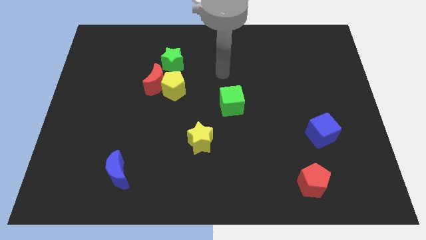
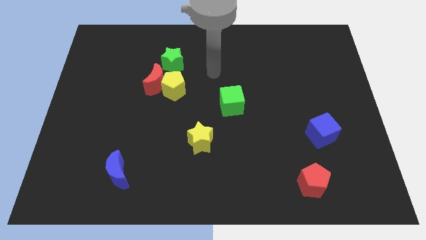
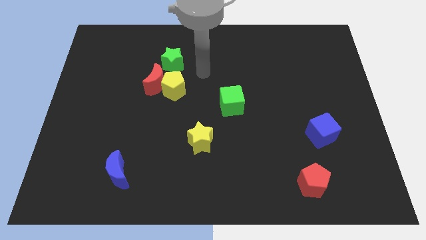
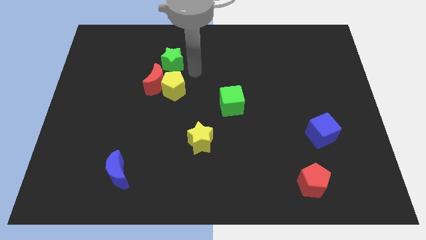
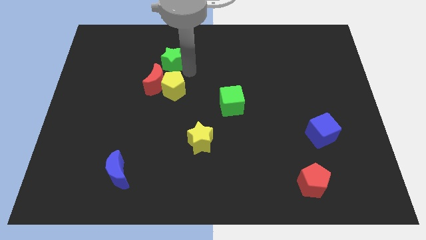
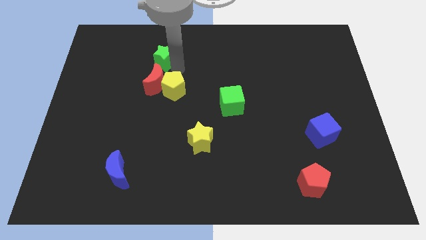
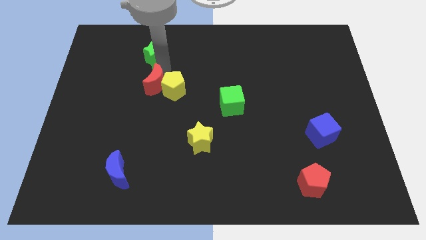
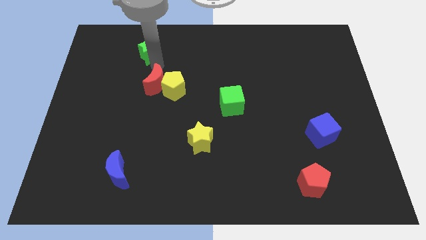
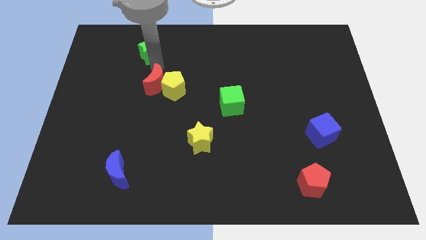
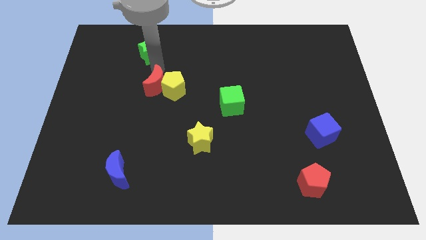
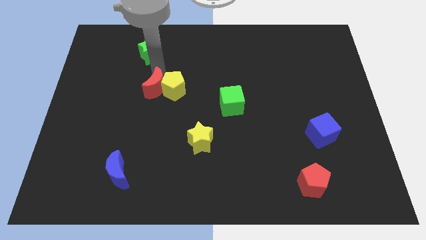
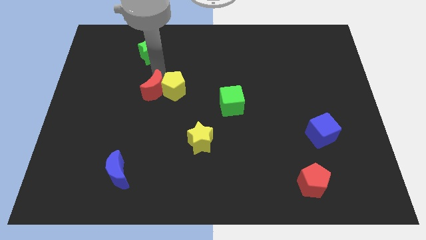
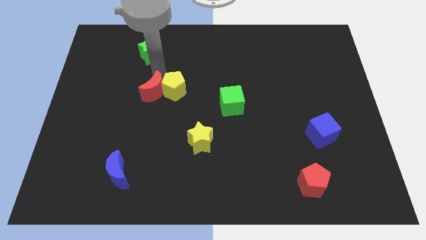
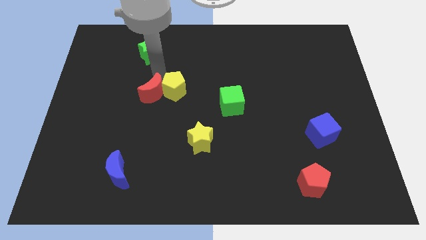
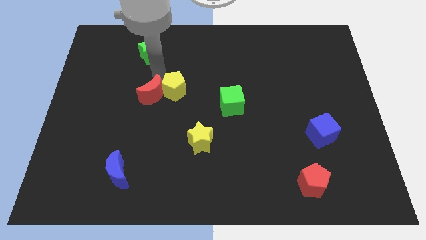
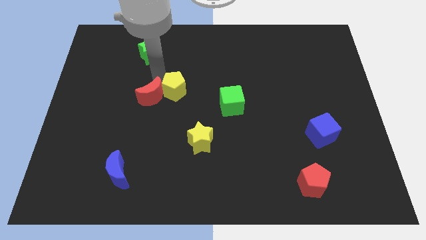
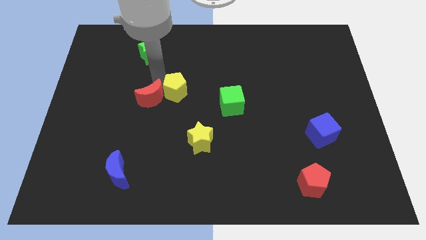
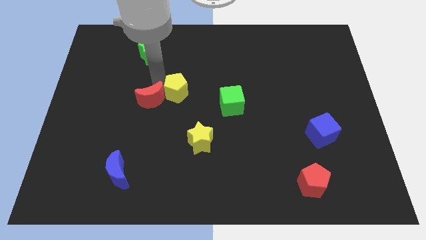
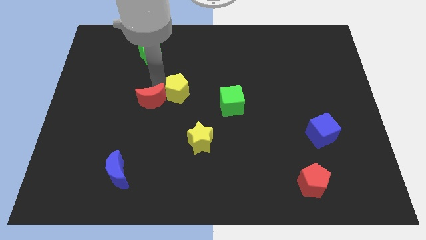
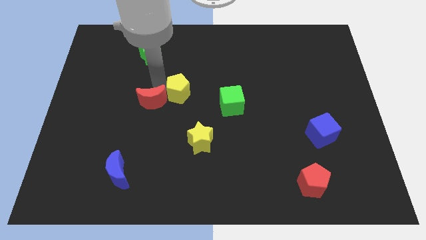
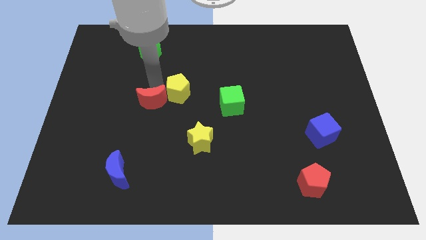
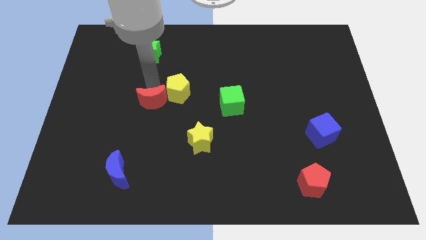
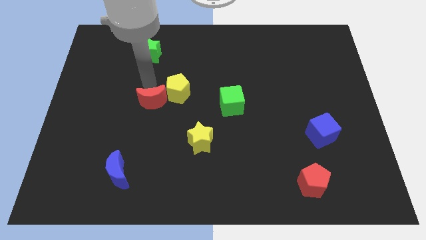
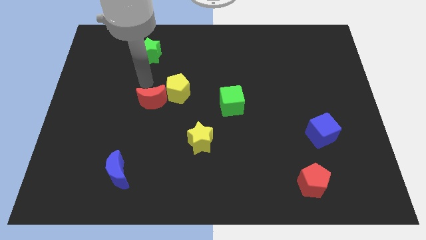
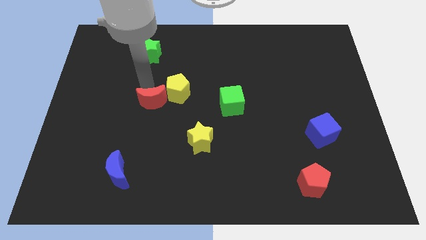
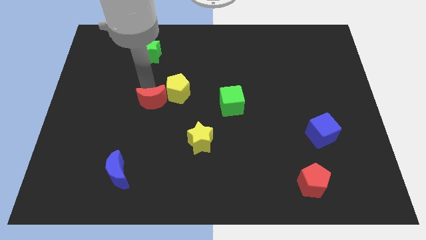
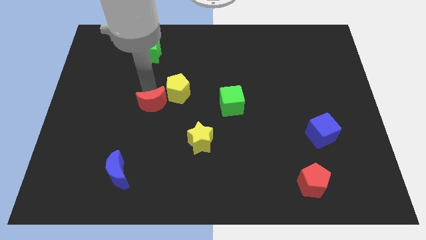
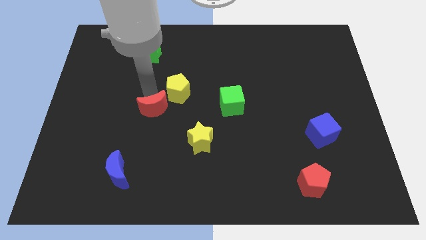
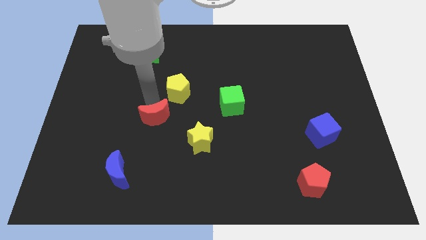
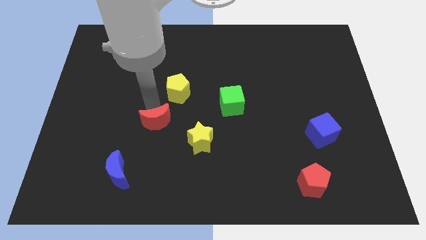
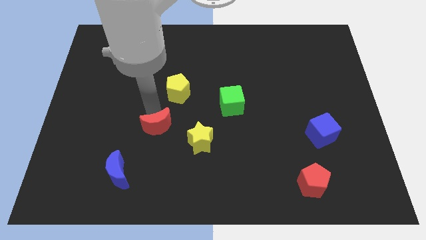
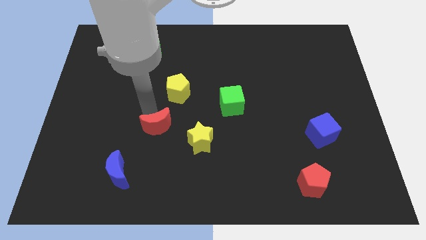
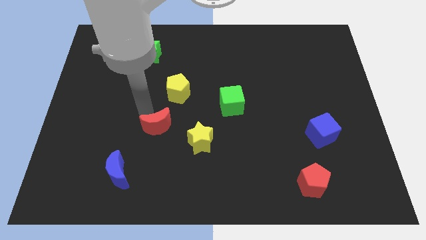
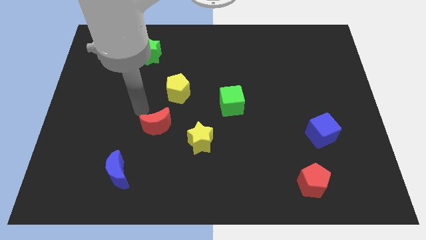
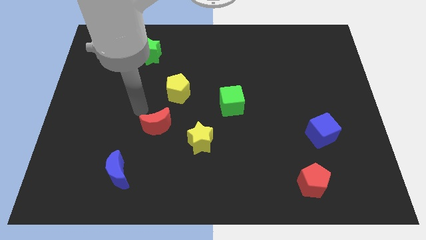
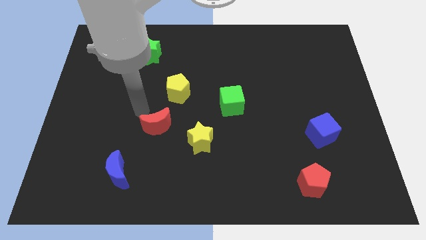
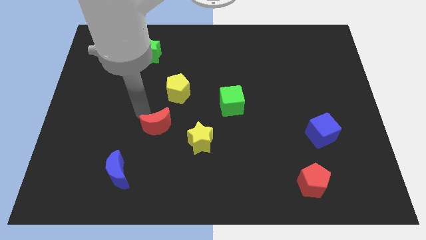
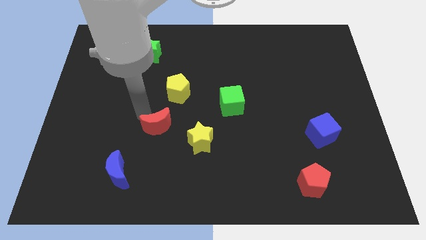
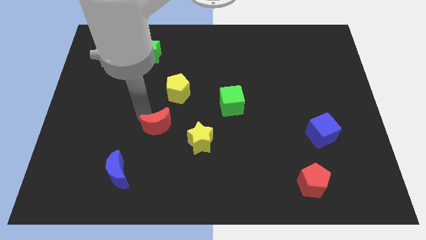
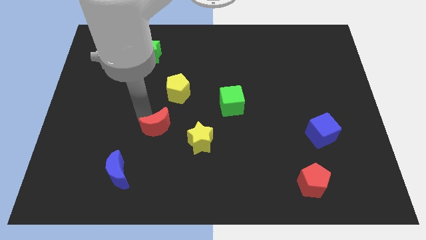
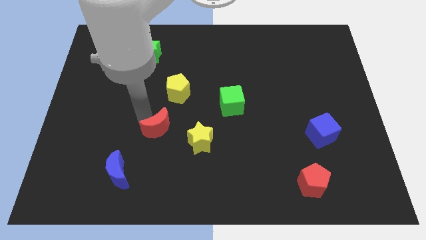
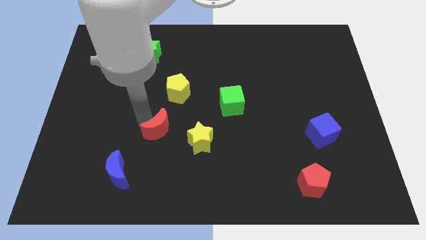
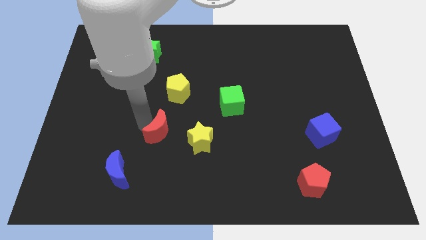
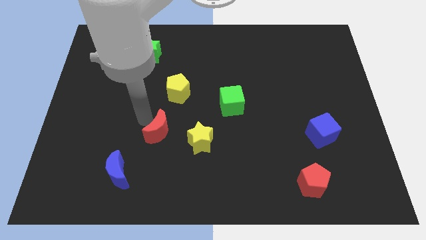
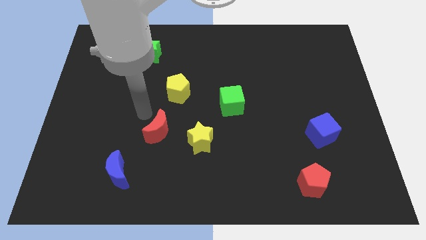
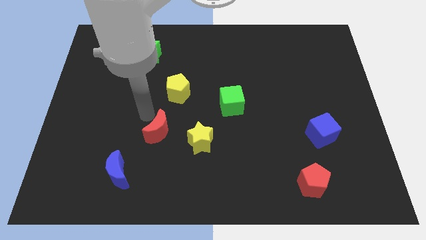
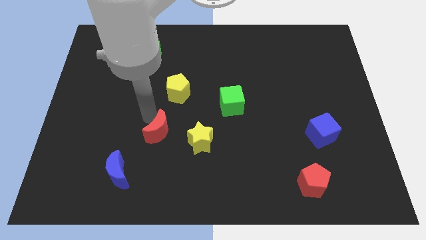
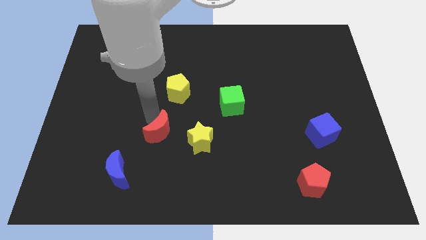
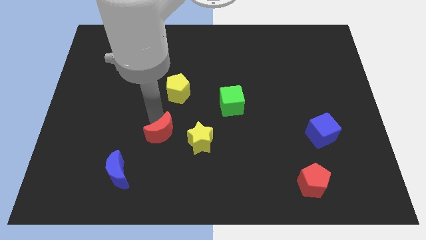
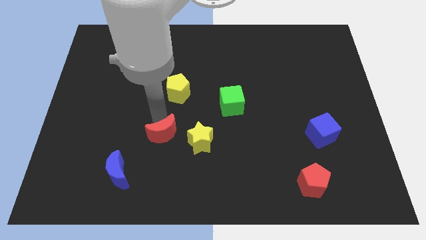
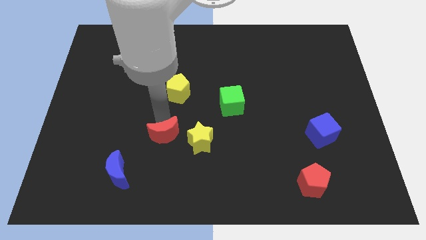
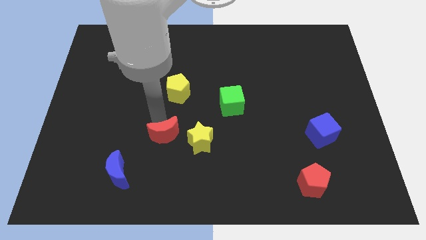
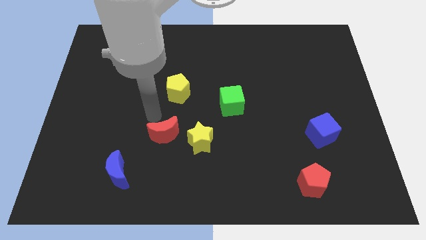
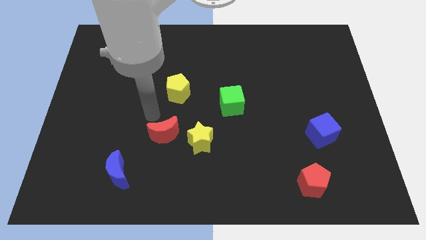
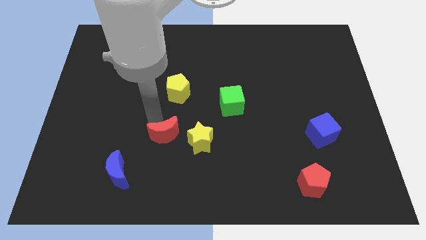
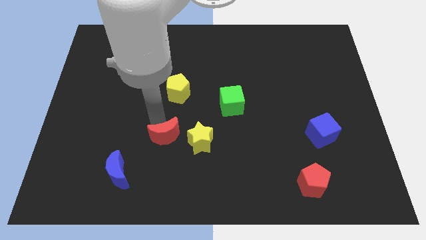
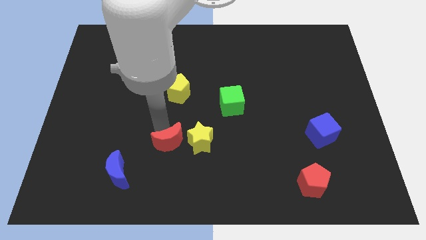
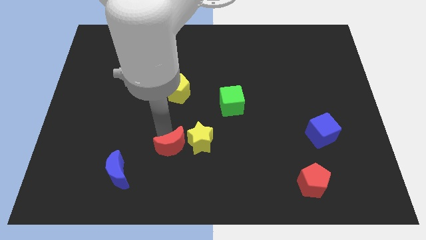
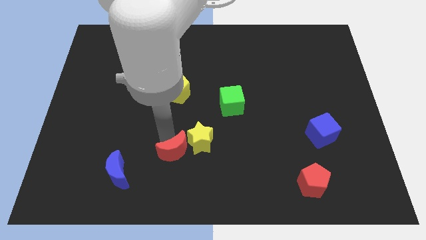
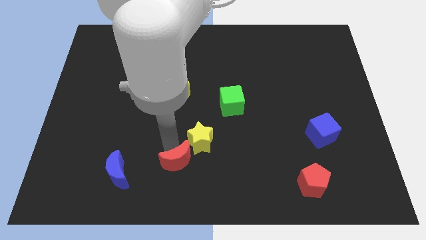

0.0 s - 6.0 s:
slide the red moon to the bottom side

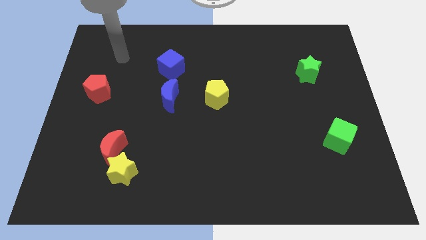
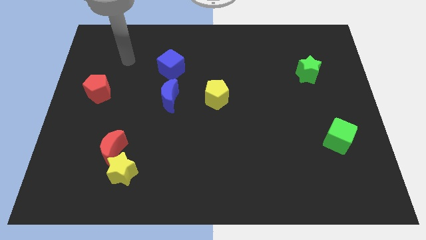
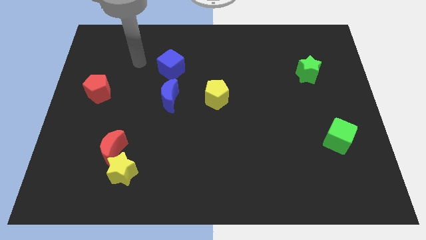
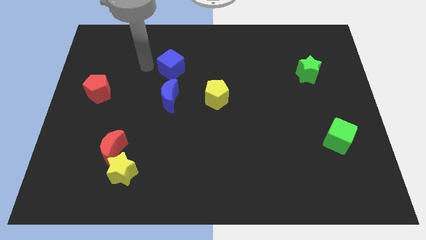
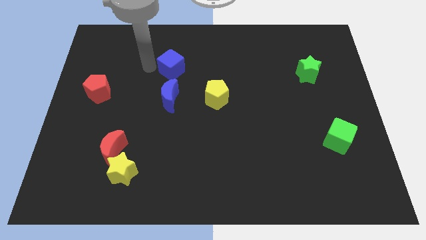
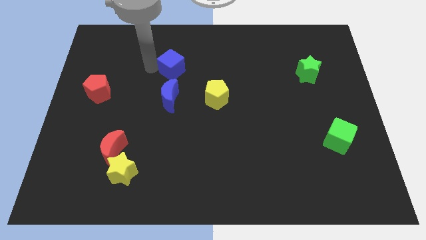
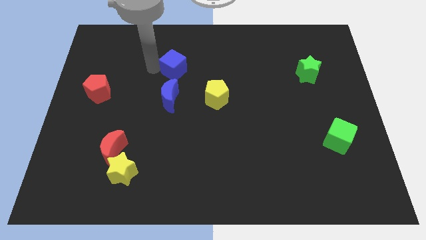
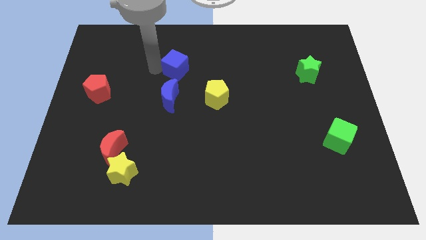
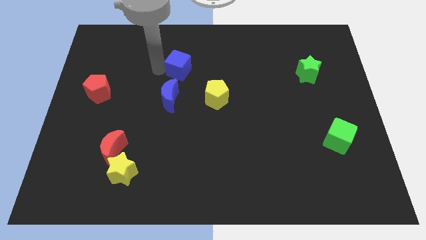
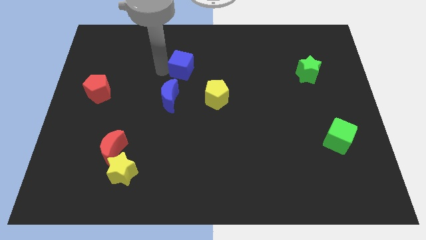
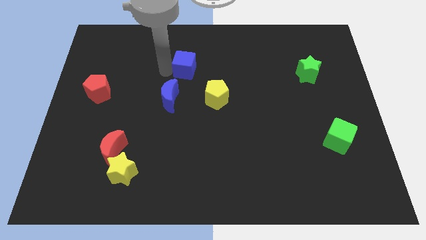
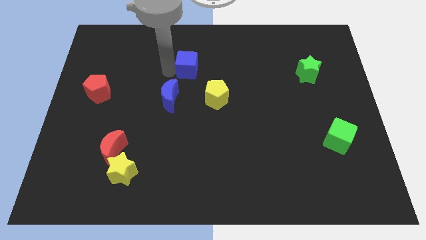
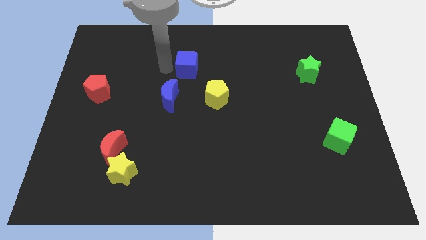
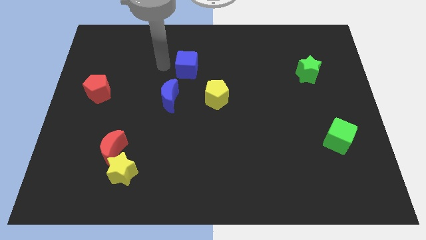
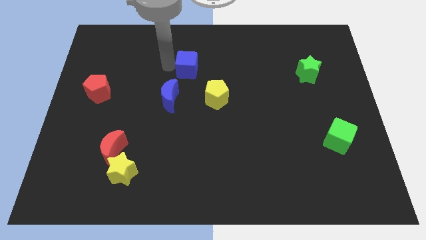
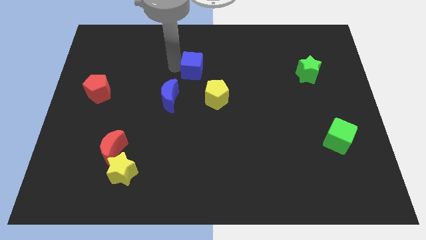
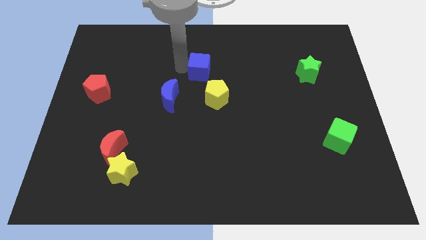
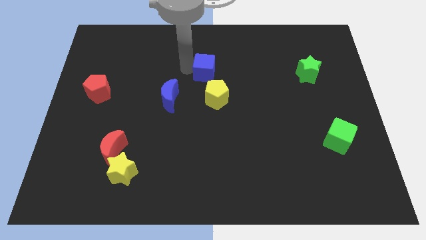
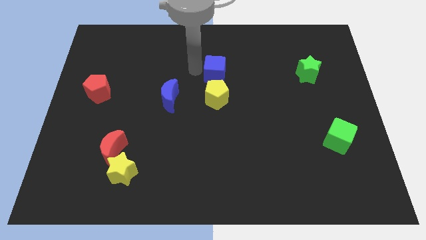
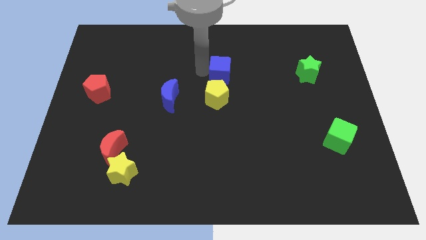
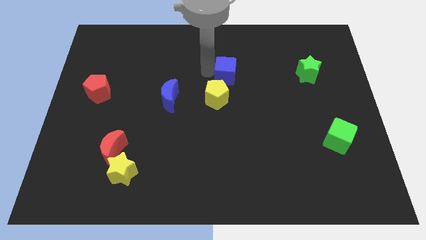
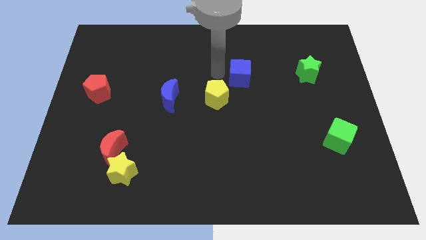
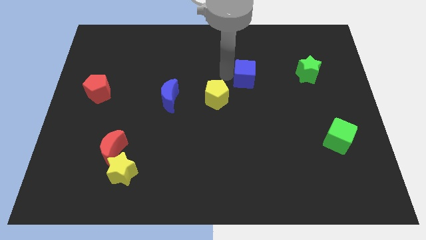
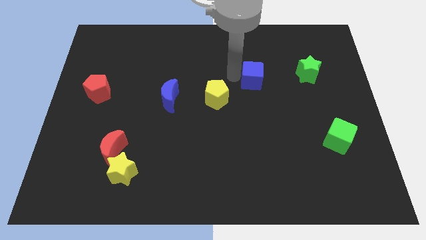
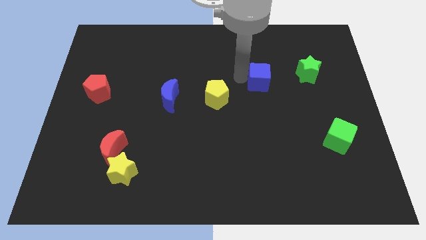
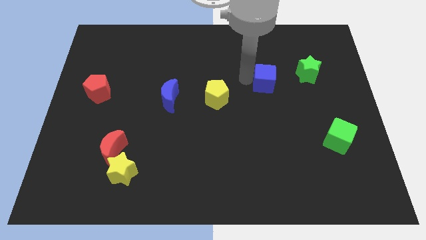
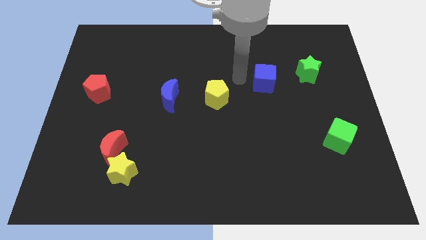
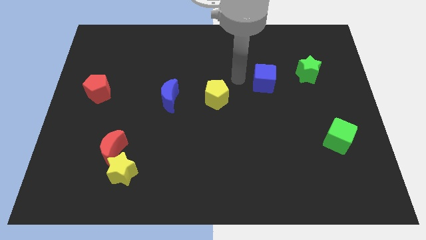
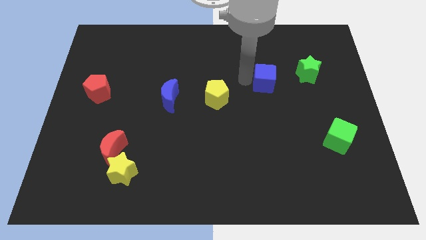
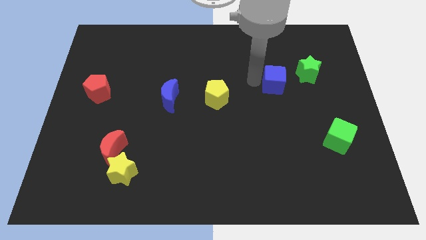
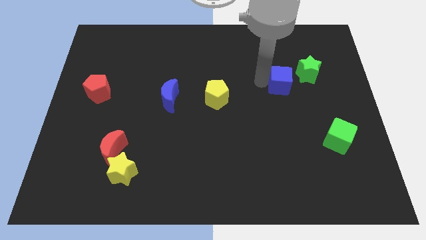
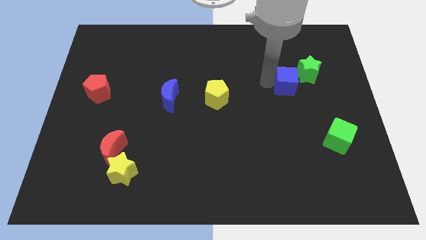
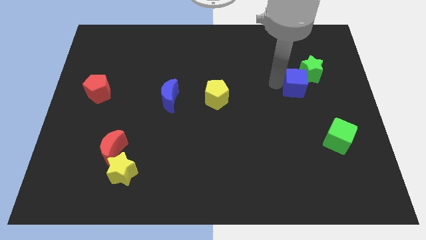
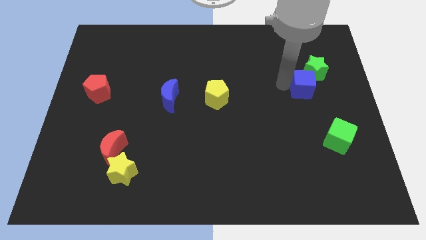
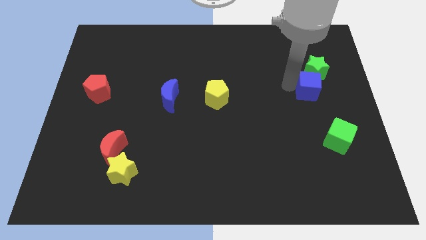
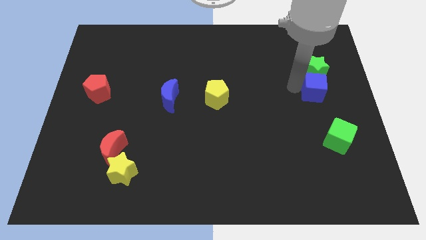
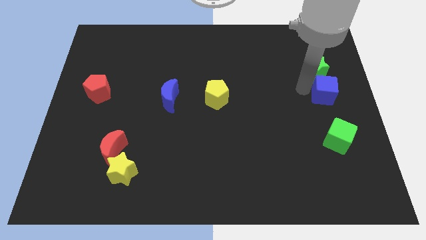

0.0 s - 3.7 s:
push the blue cube to the right side of the board
